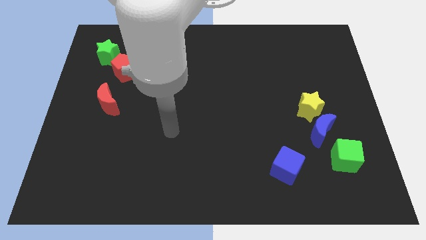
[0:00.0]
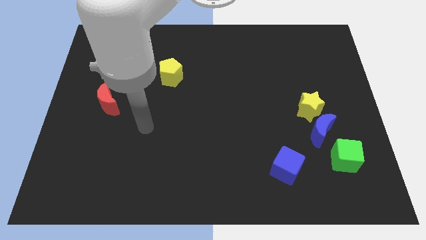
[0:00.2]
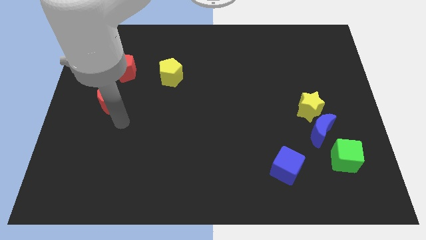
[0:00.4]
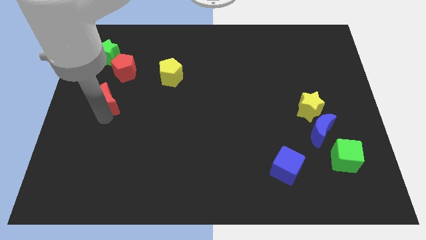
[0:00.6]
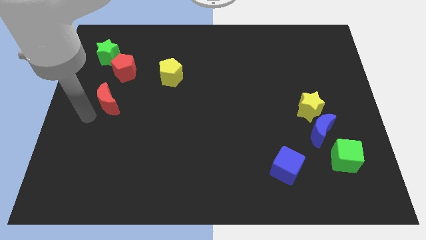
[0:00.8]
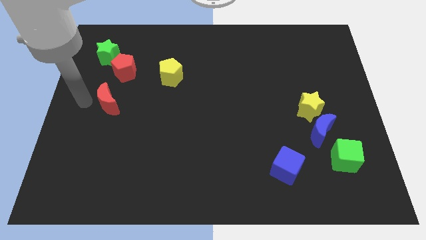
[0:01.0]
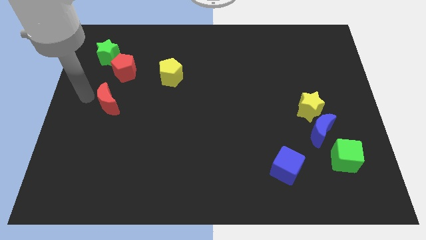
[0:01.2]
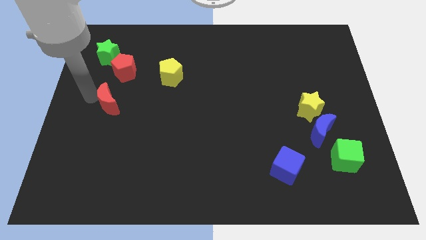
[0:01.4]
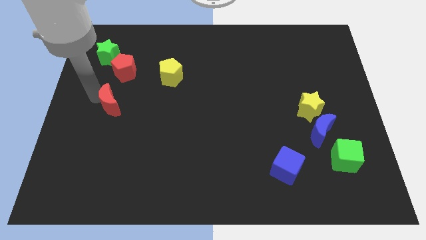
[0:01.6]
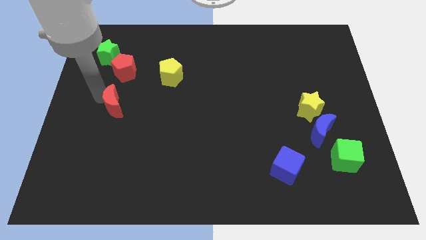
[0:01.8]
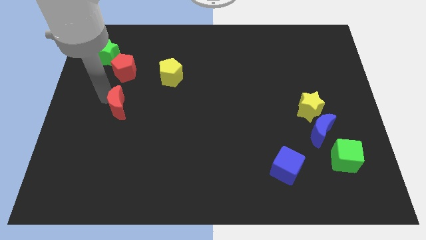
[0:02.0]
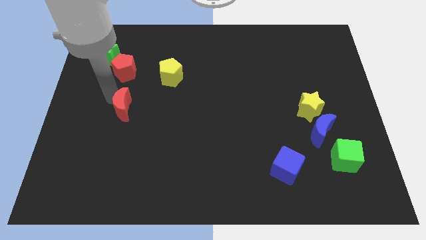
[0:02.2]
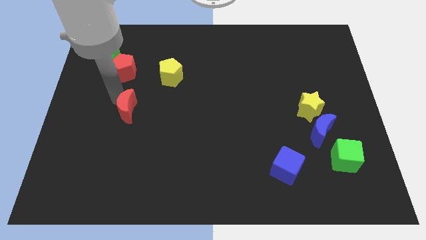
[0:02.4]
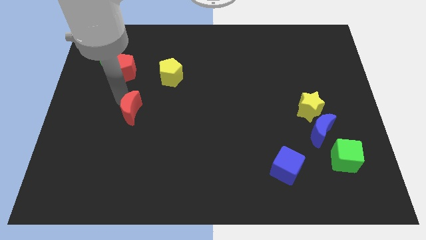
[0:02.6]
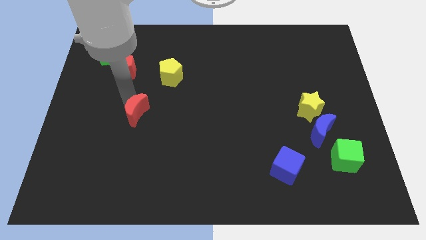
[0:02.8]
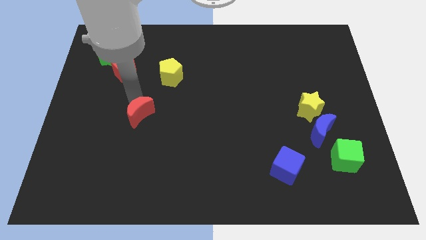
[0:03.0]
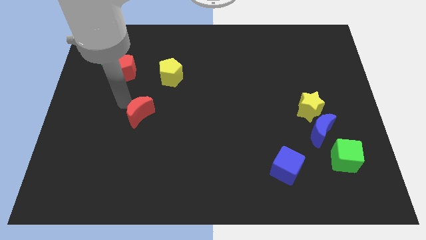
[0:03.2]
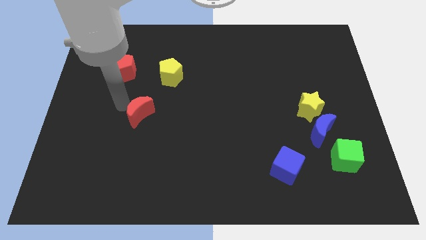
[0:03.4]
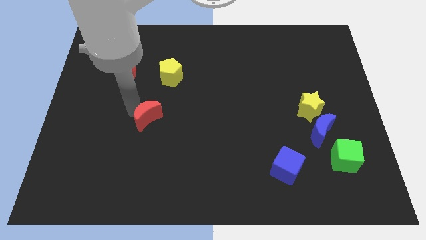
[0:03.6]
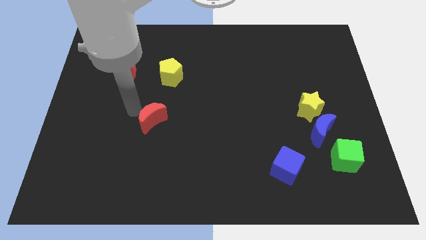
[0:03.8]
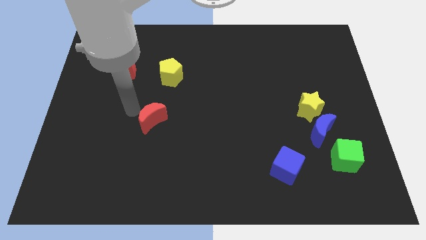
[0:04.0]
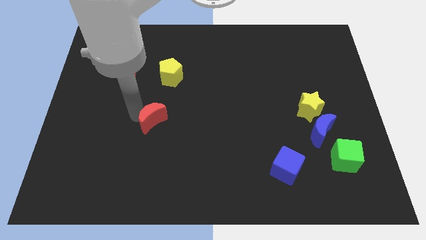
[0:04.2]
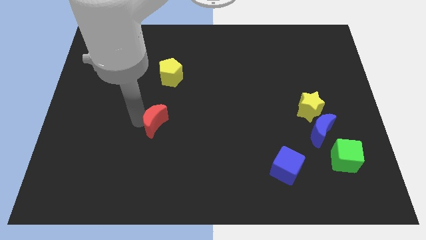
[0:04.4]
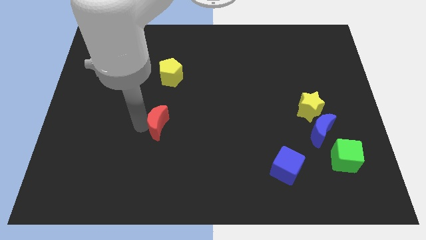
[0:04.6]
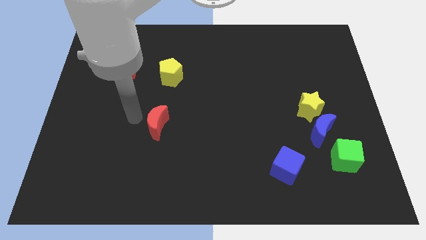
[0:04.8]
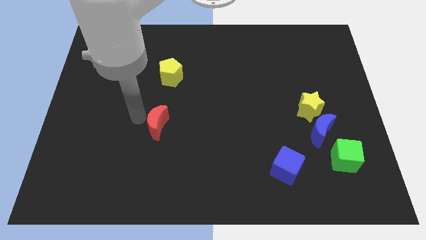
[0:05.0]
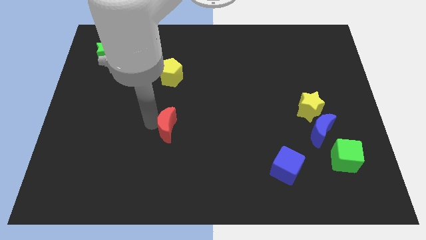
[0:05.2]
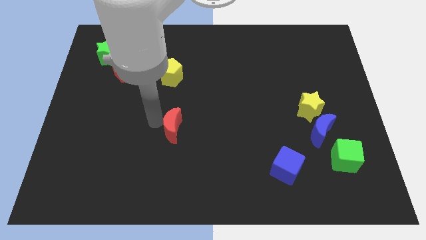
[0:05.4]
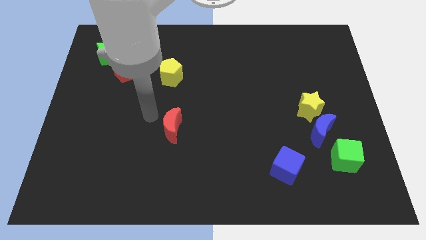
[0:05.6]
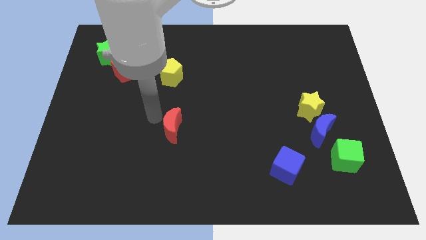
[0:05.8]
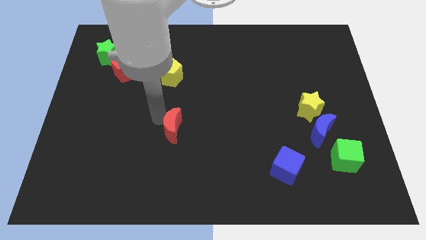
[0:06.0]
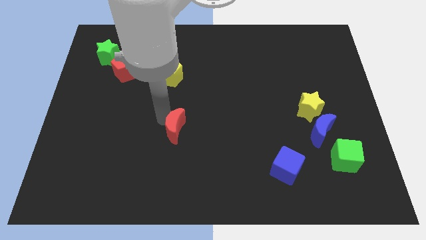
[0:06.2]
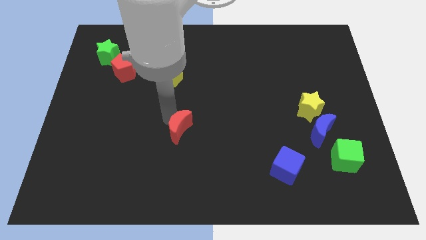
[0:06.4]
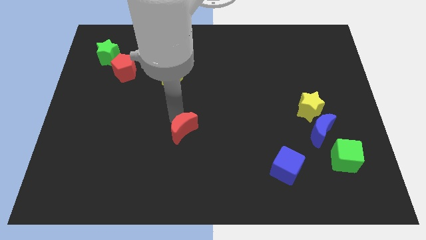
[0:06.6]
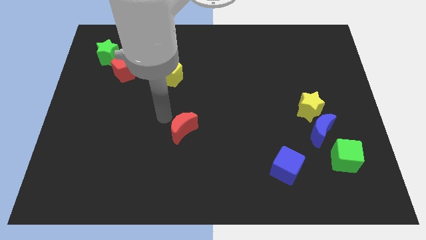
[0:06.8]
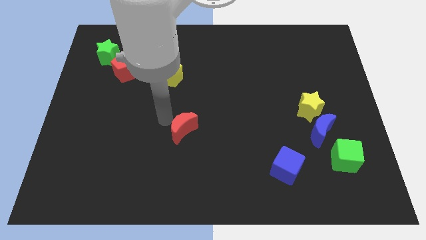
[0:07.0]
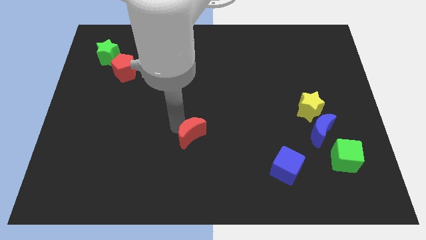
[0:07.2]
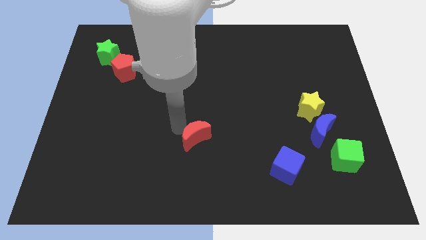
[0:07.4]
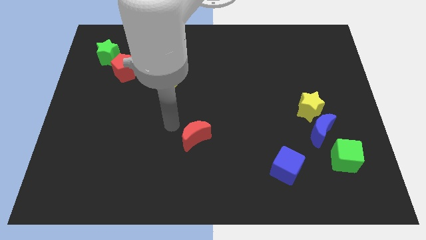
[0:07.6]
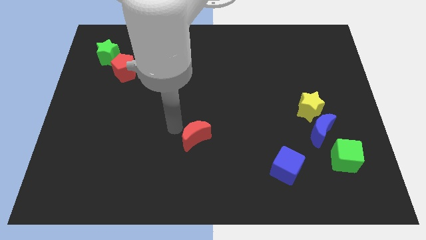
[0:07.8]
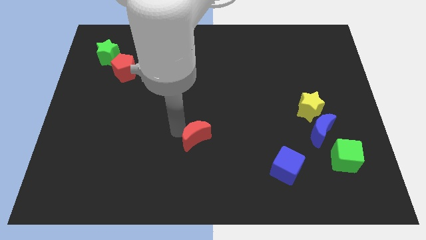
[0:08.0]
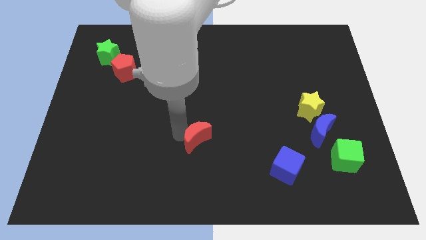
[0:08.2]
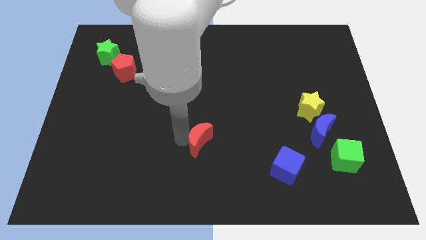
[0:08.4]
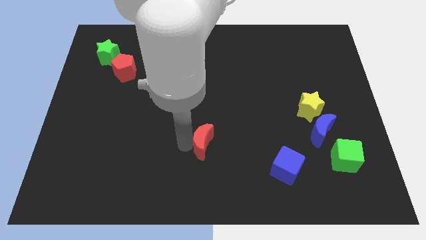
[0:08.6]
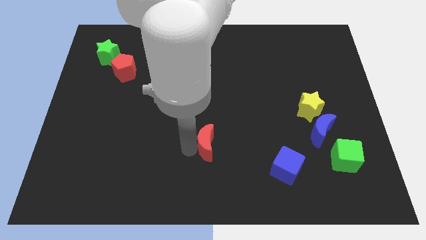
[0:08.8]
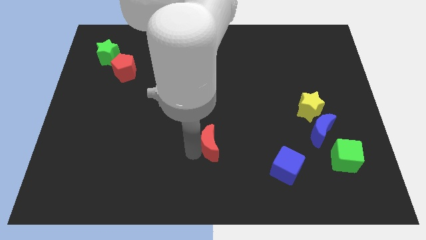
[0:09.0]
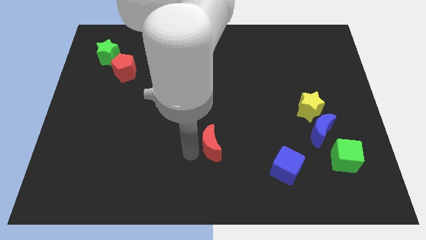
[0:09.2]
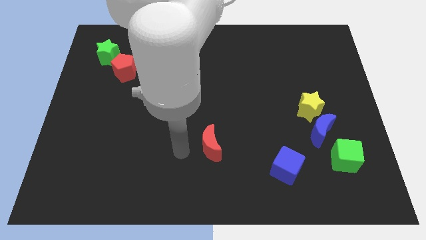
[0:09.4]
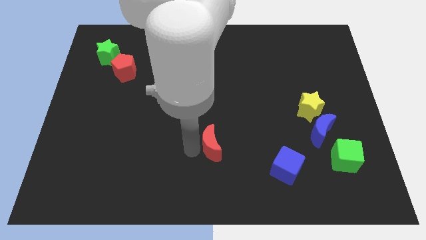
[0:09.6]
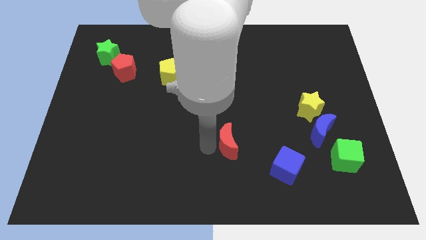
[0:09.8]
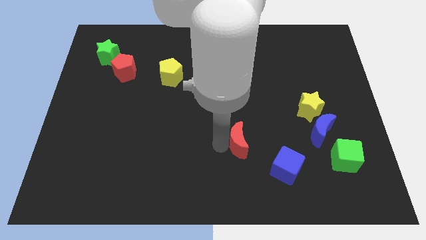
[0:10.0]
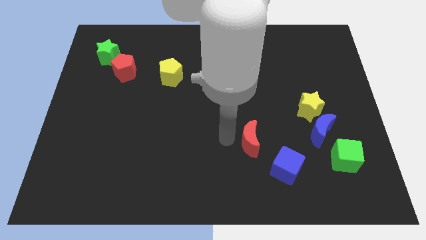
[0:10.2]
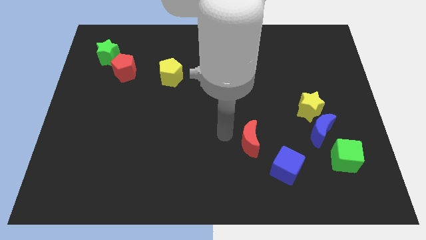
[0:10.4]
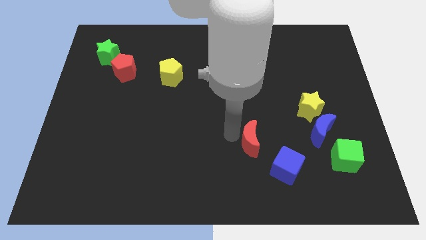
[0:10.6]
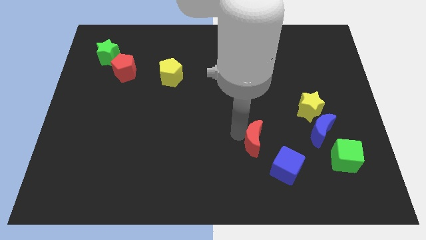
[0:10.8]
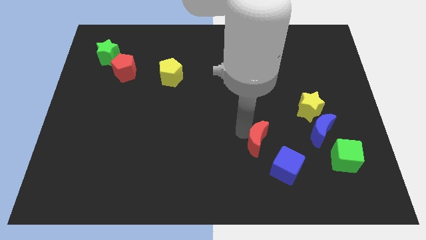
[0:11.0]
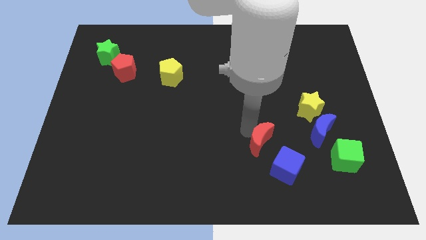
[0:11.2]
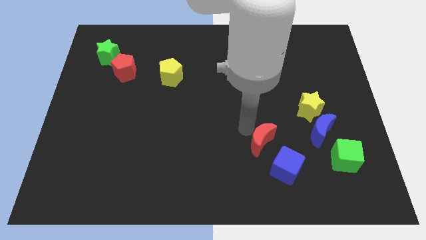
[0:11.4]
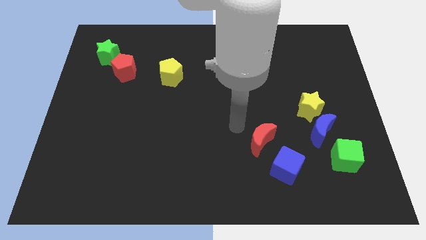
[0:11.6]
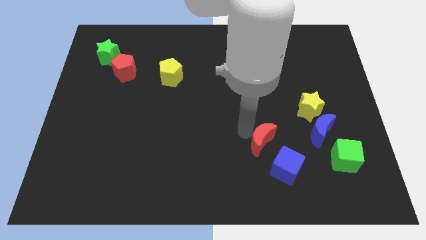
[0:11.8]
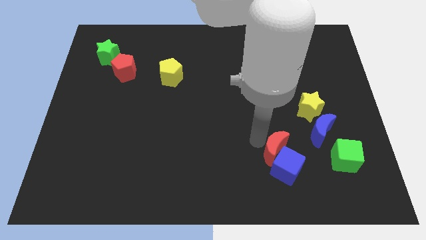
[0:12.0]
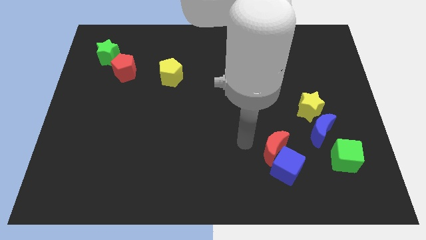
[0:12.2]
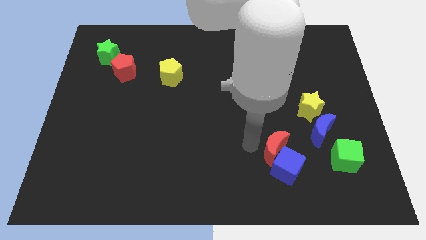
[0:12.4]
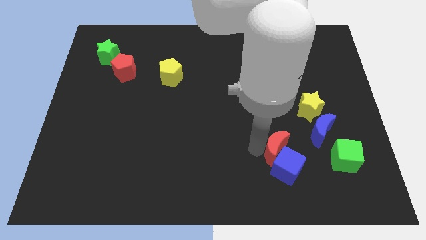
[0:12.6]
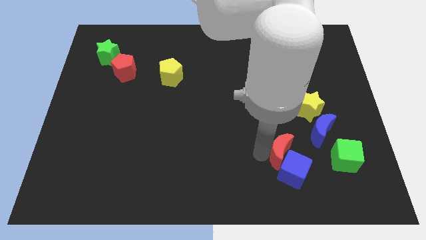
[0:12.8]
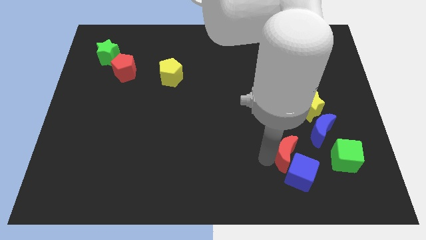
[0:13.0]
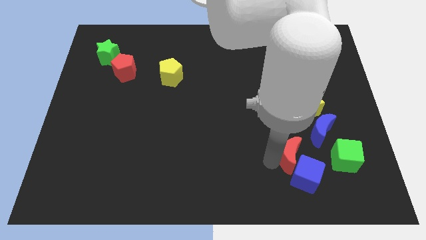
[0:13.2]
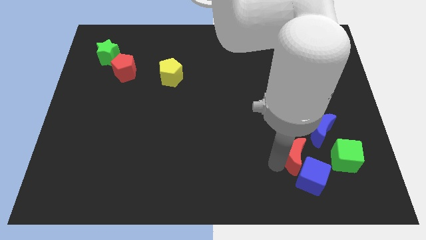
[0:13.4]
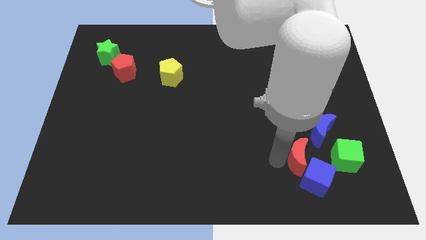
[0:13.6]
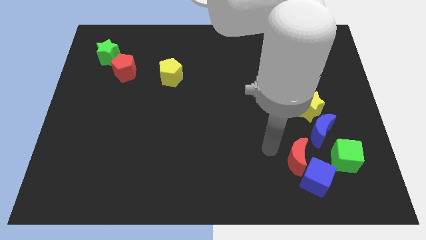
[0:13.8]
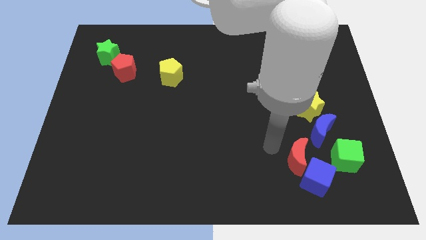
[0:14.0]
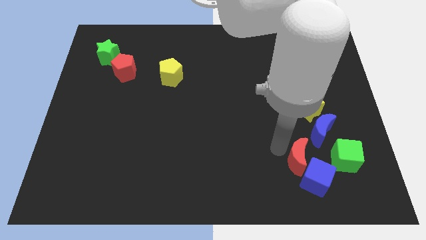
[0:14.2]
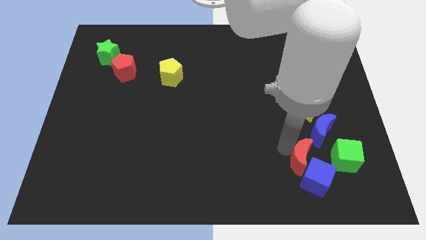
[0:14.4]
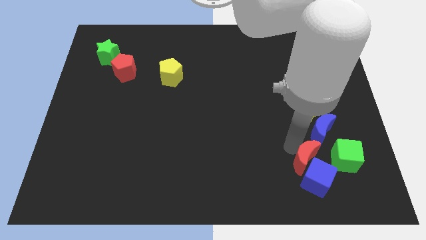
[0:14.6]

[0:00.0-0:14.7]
push the red moon to the bottom of the blue moon
